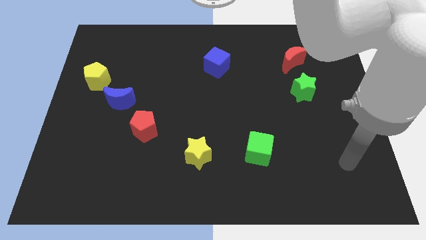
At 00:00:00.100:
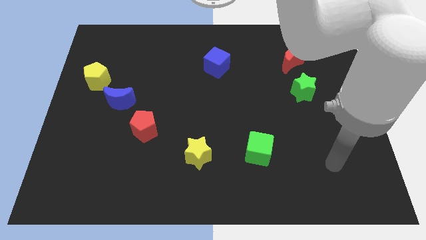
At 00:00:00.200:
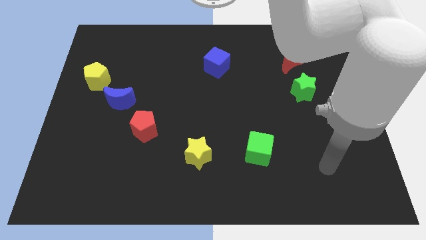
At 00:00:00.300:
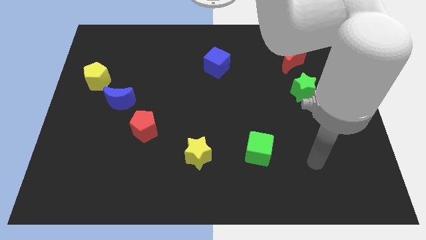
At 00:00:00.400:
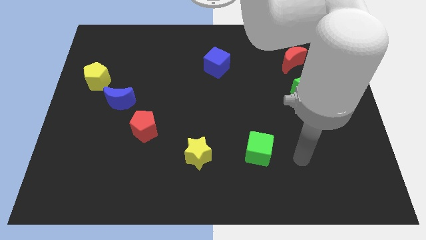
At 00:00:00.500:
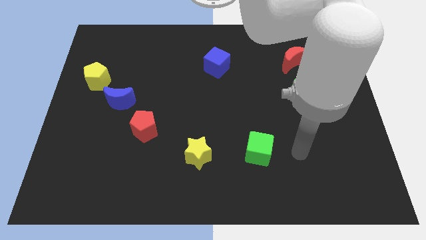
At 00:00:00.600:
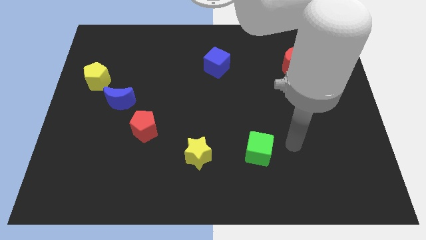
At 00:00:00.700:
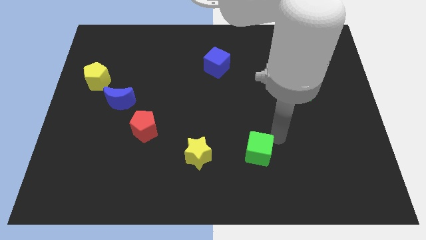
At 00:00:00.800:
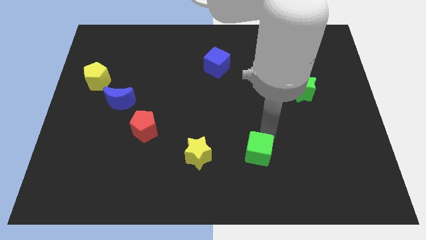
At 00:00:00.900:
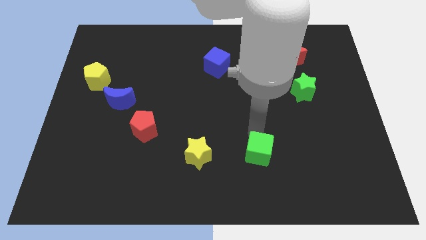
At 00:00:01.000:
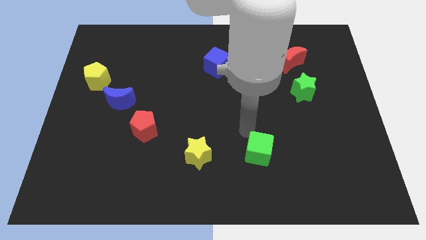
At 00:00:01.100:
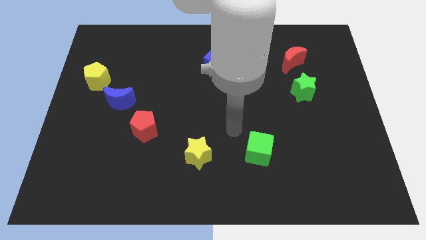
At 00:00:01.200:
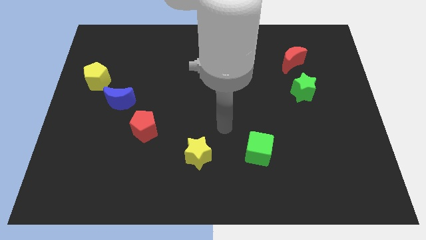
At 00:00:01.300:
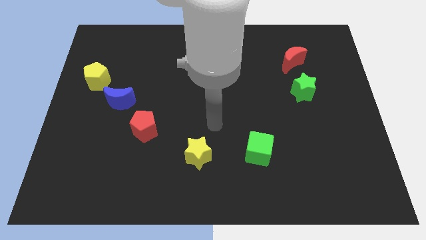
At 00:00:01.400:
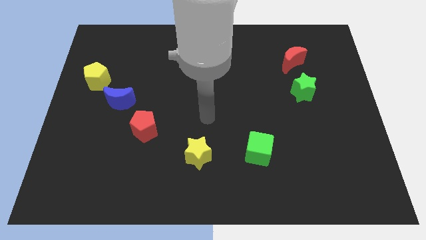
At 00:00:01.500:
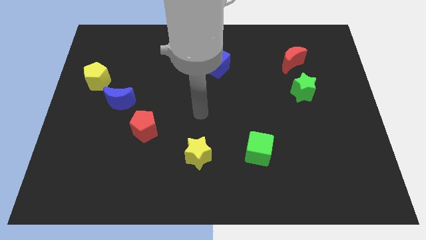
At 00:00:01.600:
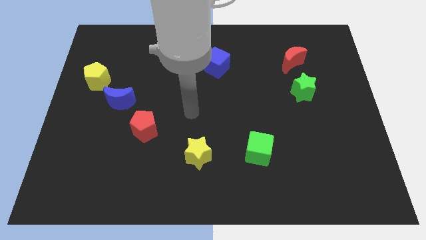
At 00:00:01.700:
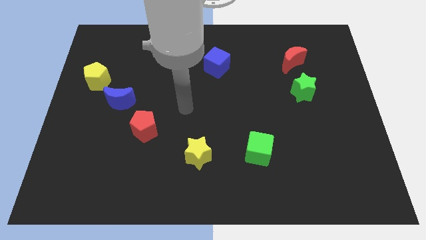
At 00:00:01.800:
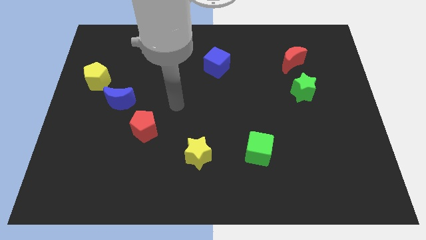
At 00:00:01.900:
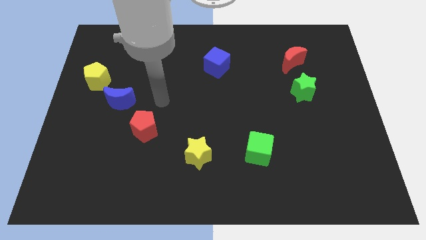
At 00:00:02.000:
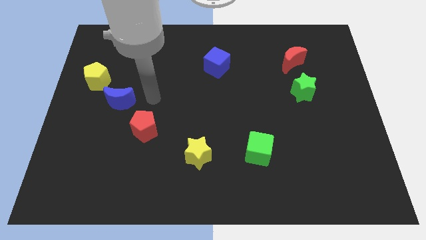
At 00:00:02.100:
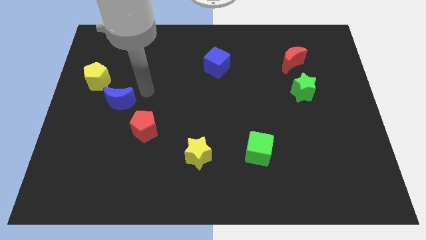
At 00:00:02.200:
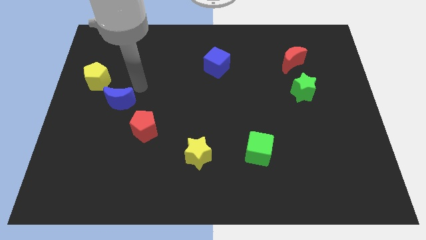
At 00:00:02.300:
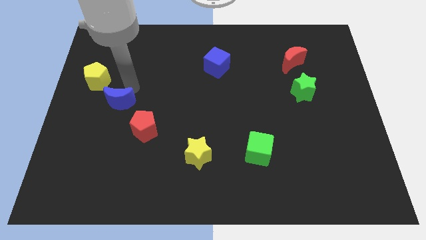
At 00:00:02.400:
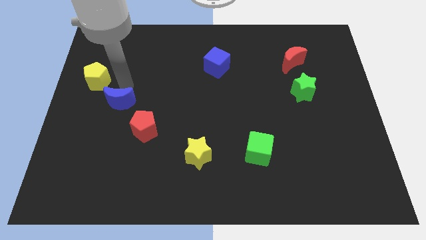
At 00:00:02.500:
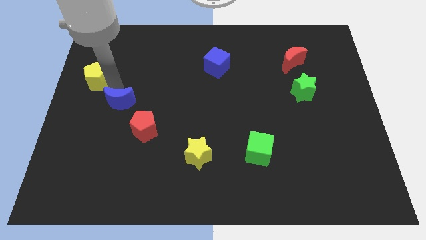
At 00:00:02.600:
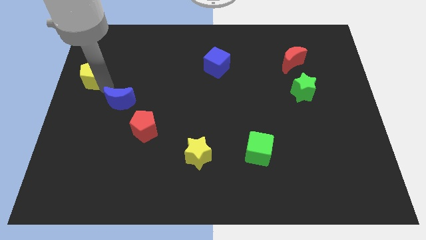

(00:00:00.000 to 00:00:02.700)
pull the blue moon apart from the yellow pentagon

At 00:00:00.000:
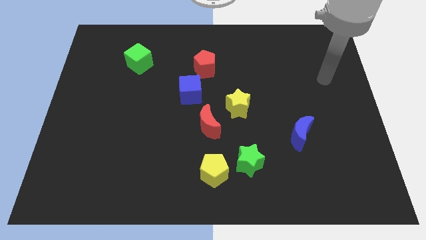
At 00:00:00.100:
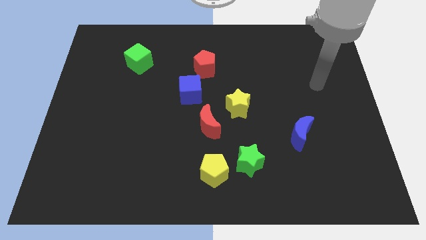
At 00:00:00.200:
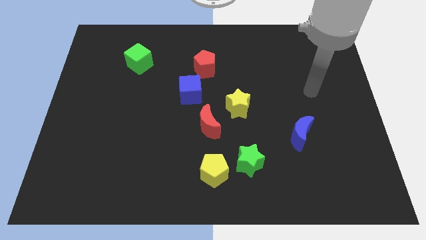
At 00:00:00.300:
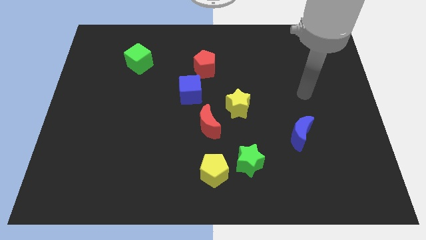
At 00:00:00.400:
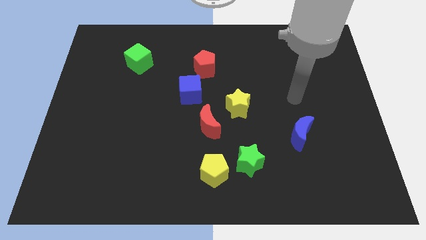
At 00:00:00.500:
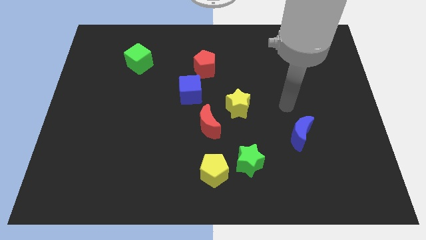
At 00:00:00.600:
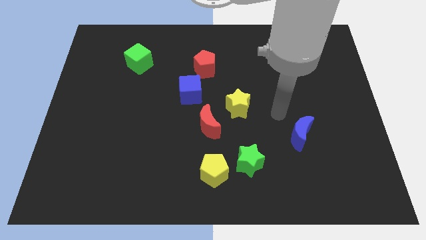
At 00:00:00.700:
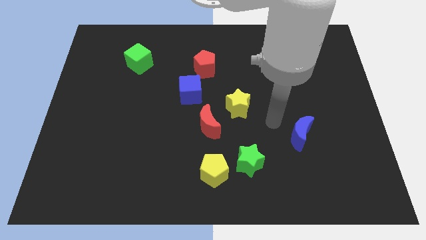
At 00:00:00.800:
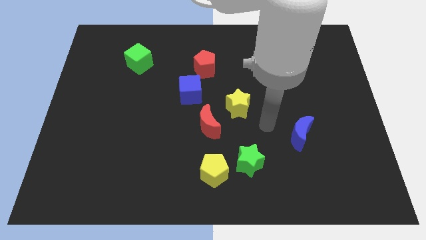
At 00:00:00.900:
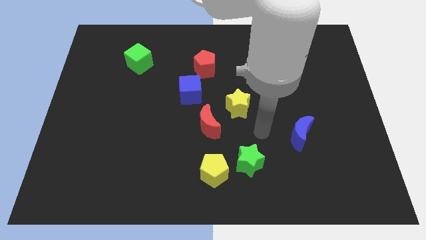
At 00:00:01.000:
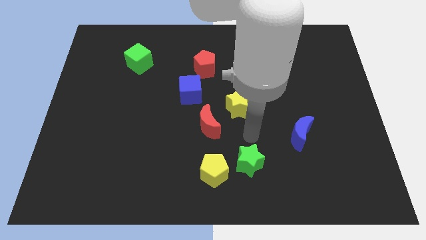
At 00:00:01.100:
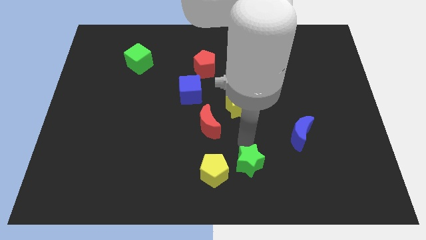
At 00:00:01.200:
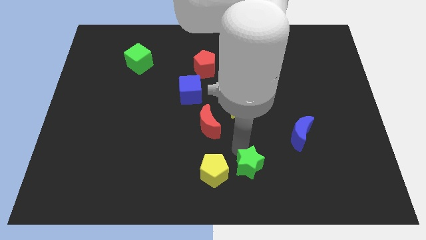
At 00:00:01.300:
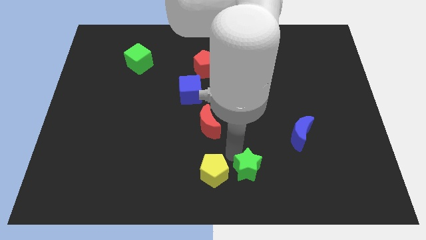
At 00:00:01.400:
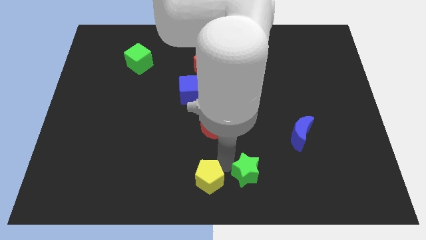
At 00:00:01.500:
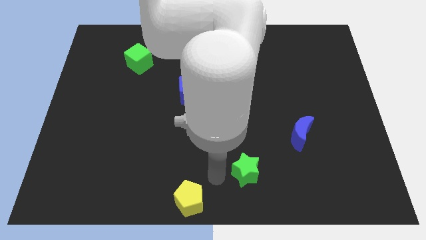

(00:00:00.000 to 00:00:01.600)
move the green star away from the yellow pentagon

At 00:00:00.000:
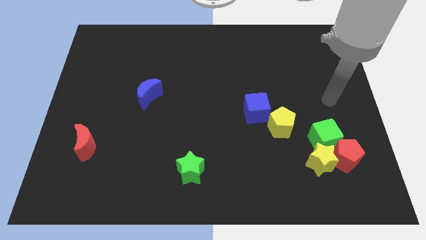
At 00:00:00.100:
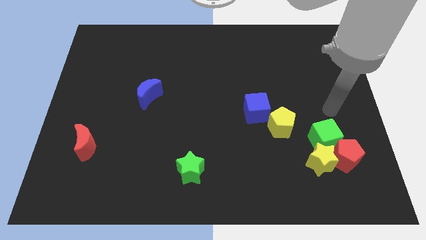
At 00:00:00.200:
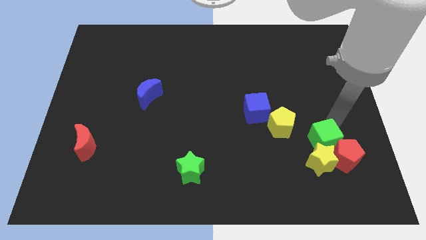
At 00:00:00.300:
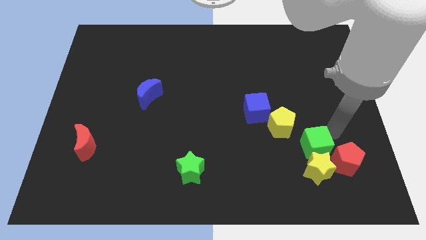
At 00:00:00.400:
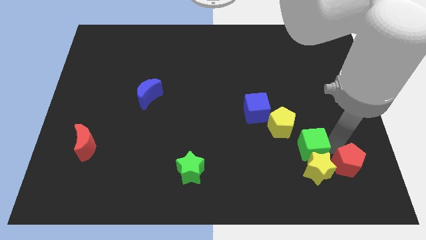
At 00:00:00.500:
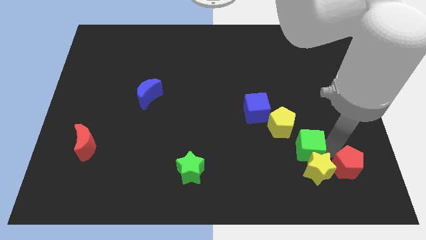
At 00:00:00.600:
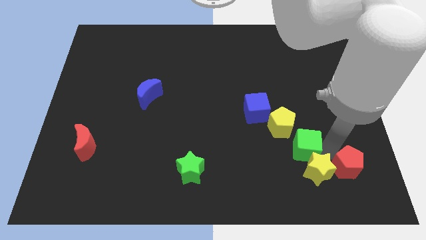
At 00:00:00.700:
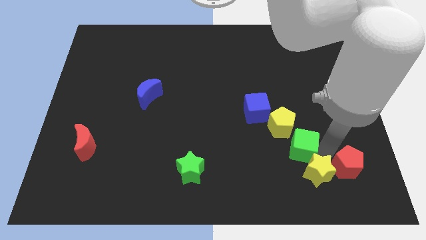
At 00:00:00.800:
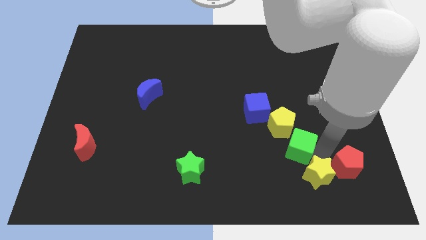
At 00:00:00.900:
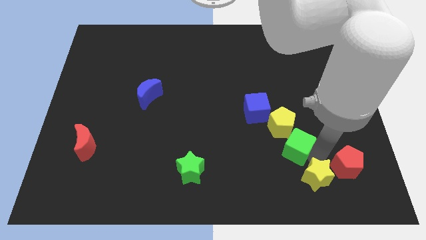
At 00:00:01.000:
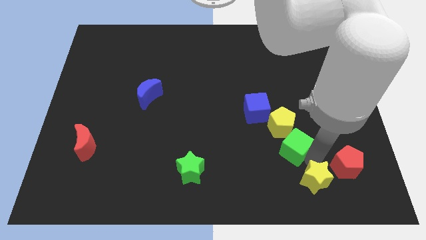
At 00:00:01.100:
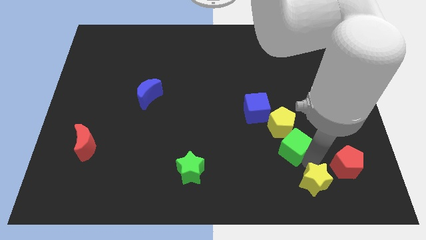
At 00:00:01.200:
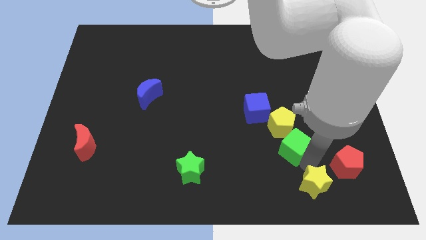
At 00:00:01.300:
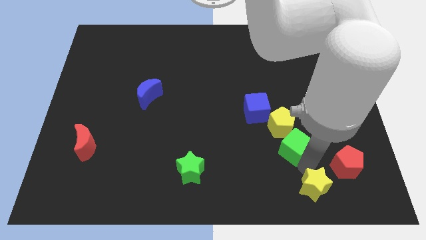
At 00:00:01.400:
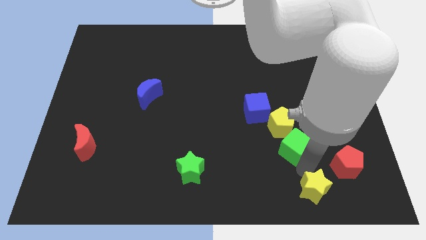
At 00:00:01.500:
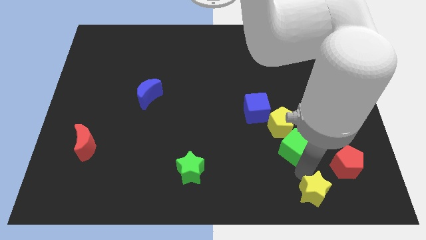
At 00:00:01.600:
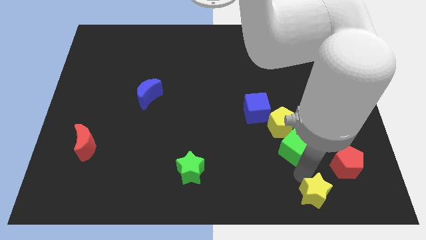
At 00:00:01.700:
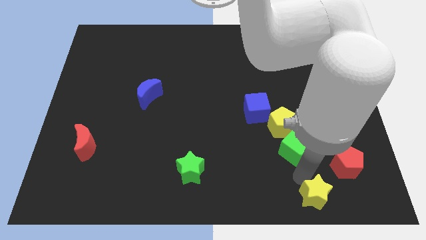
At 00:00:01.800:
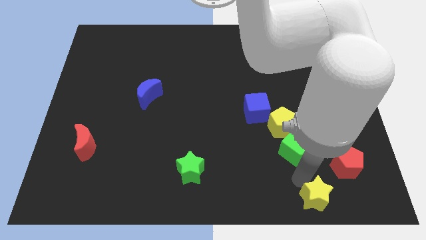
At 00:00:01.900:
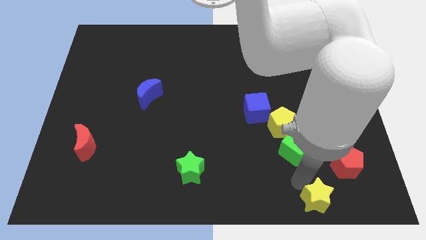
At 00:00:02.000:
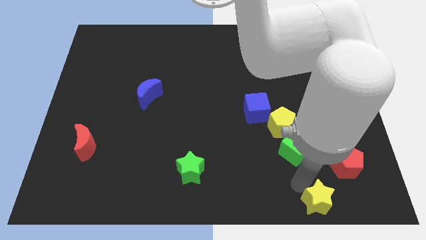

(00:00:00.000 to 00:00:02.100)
pull the yellow star apart from the red pentagon and green cube

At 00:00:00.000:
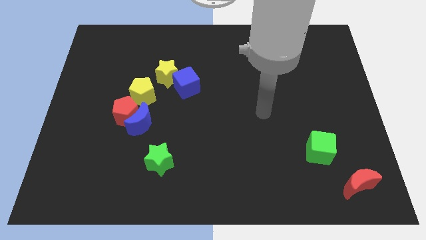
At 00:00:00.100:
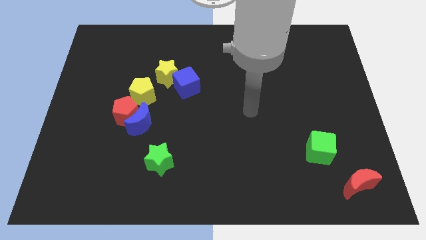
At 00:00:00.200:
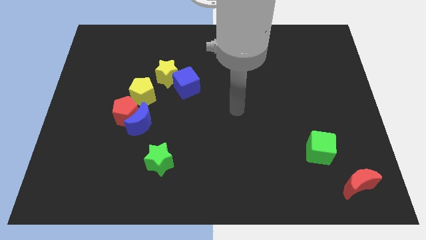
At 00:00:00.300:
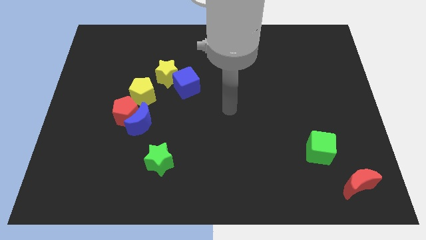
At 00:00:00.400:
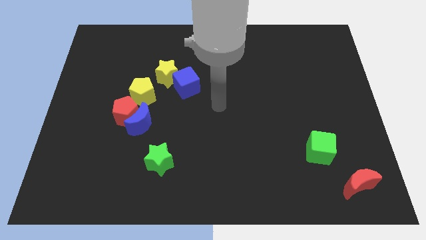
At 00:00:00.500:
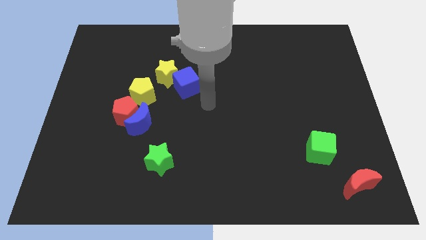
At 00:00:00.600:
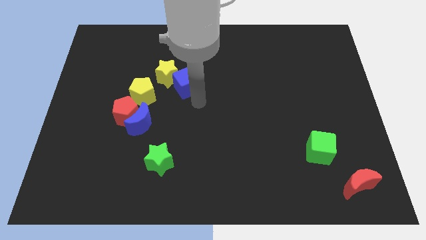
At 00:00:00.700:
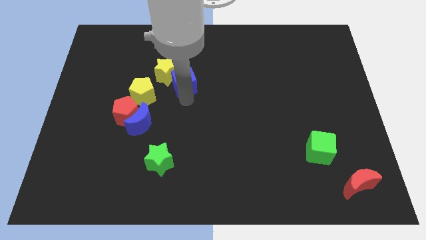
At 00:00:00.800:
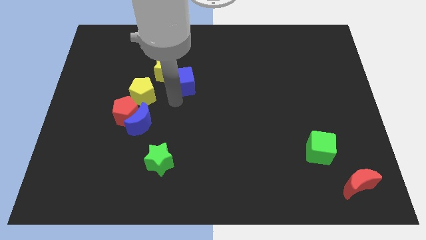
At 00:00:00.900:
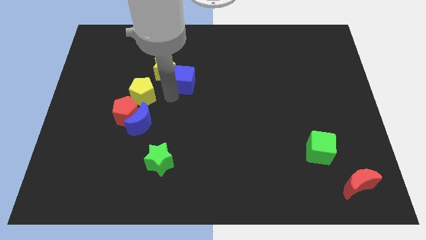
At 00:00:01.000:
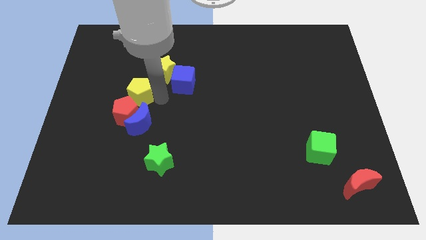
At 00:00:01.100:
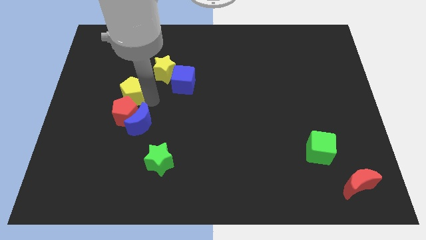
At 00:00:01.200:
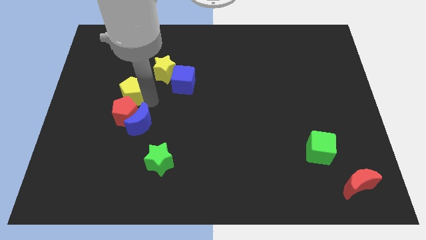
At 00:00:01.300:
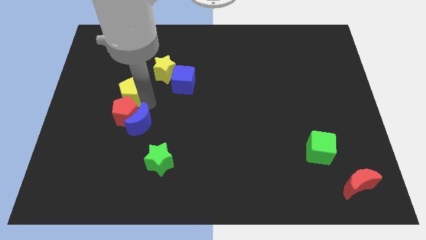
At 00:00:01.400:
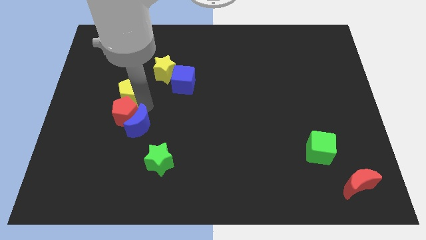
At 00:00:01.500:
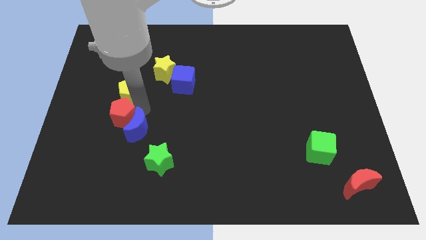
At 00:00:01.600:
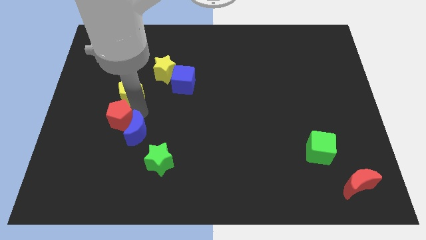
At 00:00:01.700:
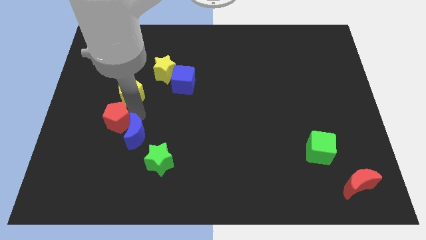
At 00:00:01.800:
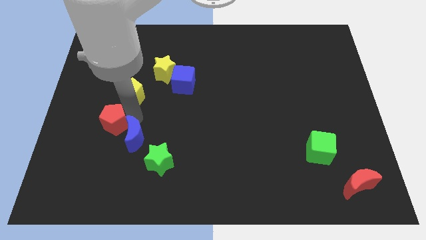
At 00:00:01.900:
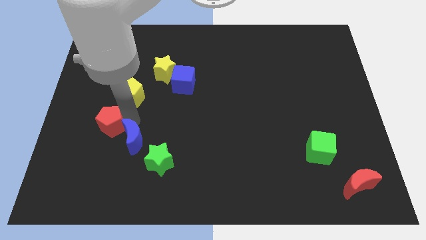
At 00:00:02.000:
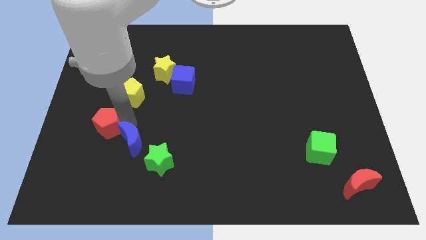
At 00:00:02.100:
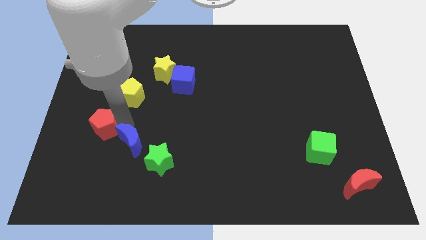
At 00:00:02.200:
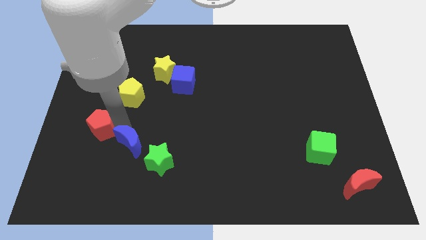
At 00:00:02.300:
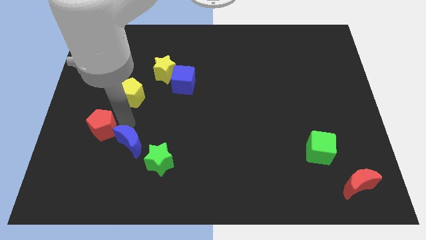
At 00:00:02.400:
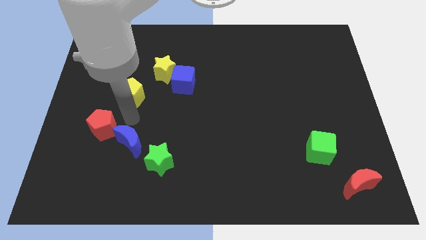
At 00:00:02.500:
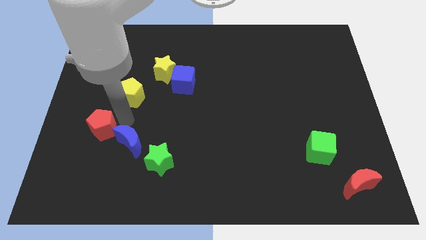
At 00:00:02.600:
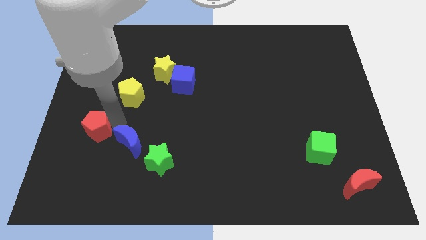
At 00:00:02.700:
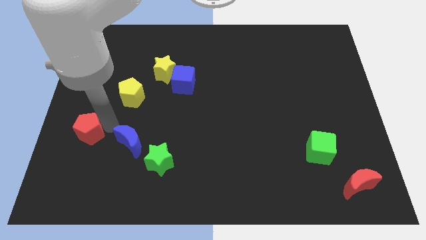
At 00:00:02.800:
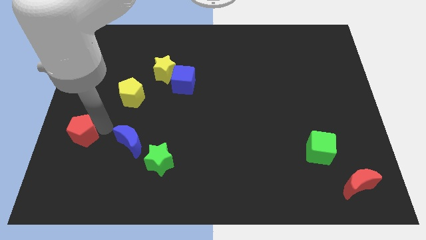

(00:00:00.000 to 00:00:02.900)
move the red pentagon away from the blue moon and yellow pentagon
